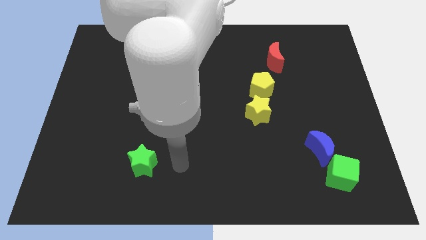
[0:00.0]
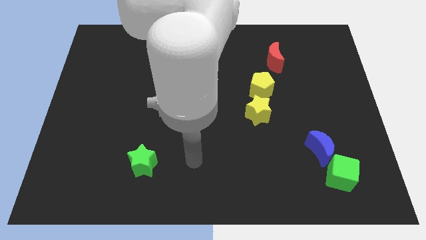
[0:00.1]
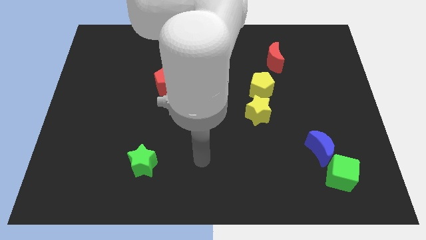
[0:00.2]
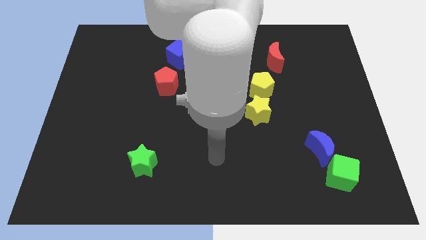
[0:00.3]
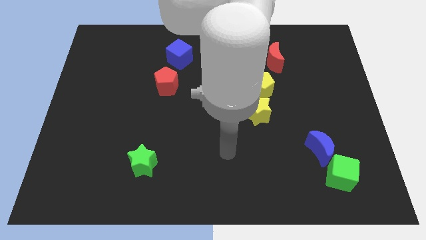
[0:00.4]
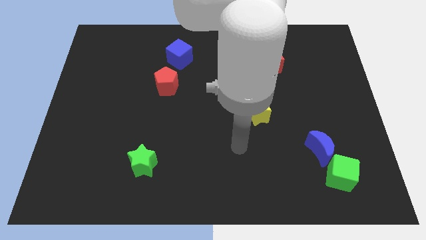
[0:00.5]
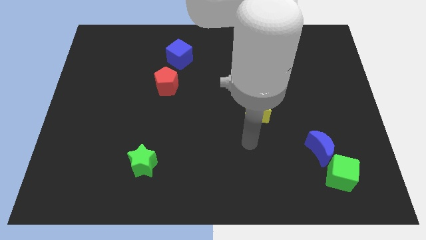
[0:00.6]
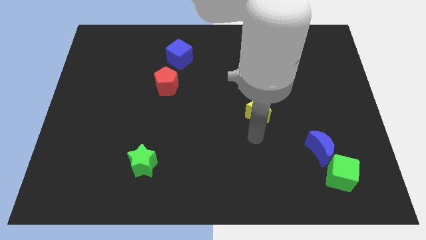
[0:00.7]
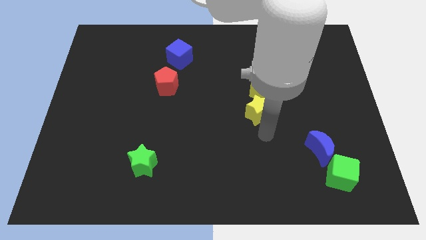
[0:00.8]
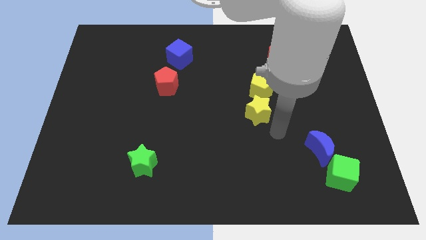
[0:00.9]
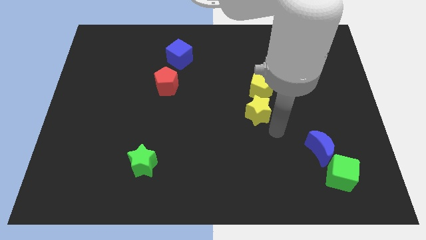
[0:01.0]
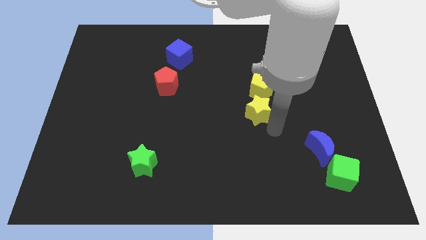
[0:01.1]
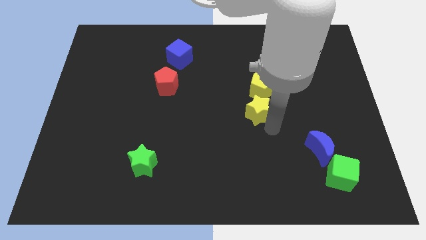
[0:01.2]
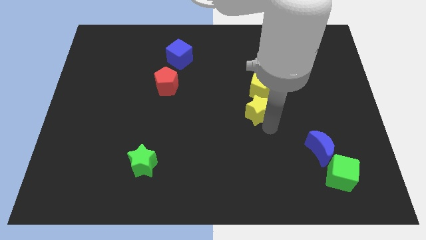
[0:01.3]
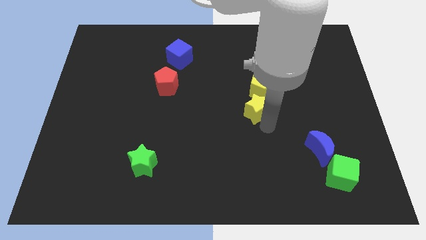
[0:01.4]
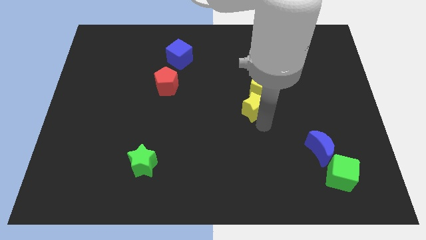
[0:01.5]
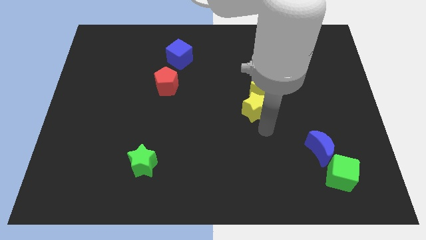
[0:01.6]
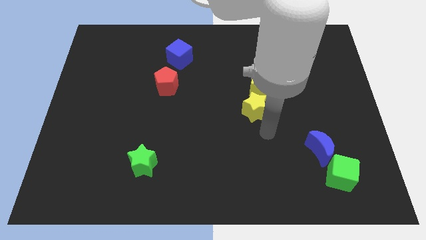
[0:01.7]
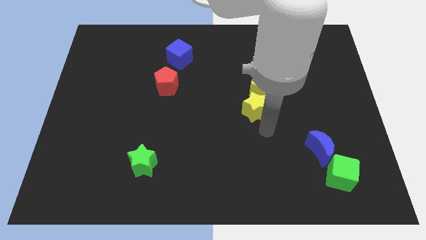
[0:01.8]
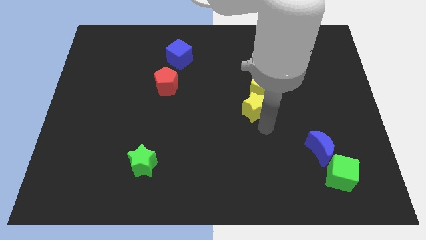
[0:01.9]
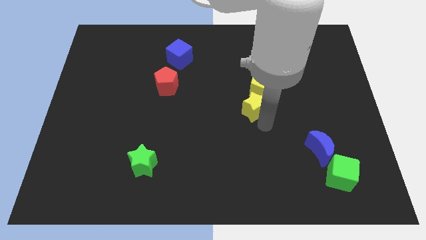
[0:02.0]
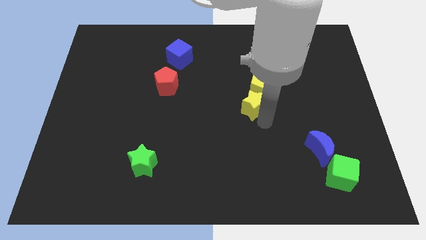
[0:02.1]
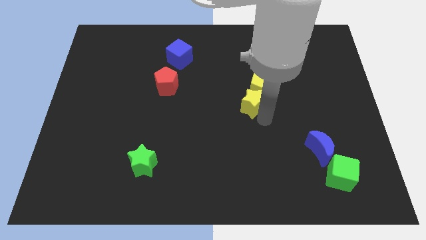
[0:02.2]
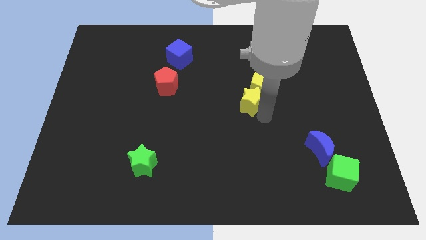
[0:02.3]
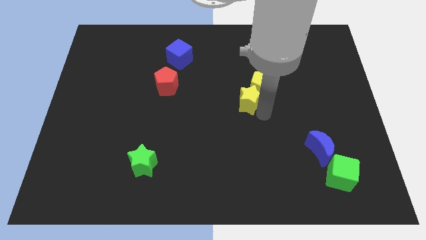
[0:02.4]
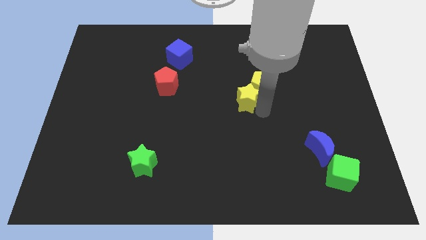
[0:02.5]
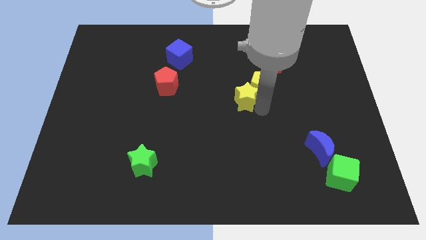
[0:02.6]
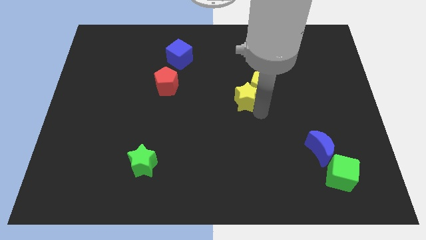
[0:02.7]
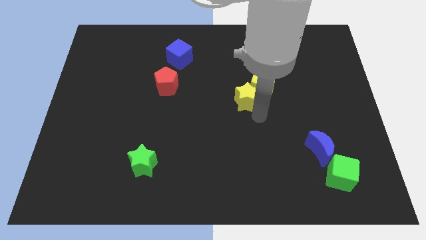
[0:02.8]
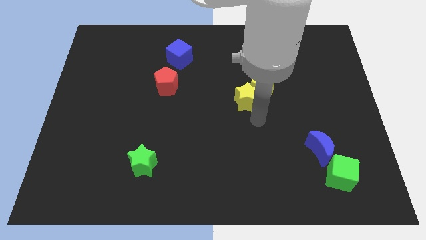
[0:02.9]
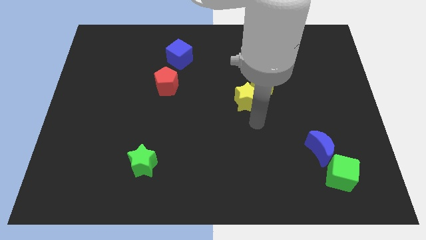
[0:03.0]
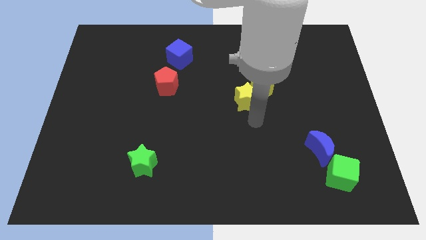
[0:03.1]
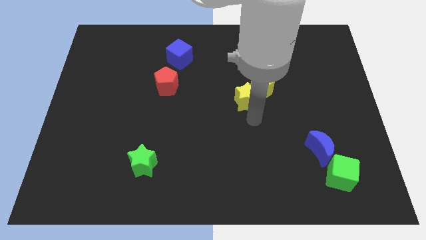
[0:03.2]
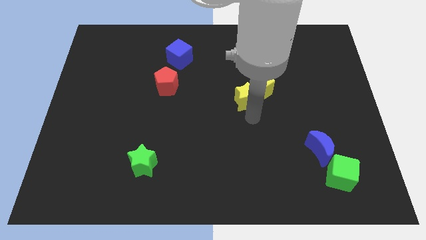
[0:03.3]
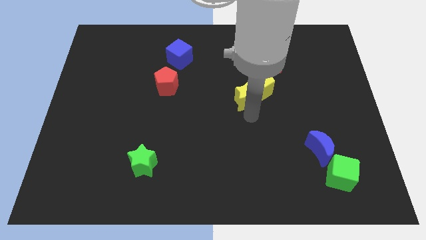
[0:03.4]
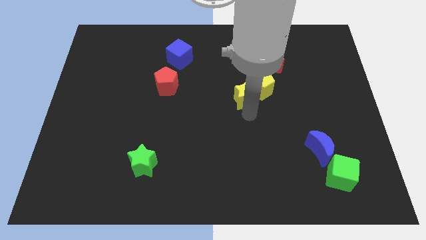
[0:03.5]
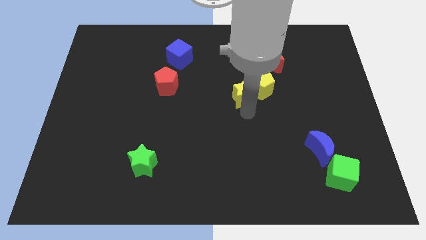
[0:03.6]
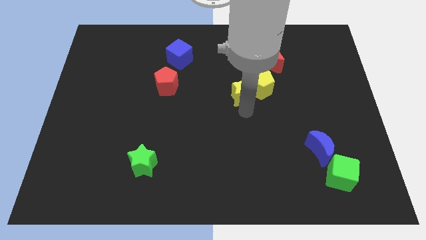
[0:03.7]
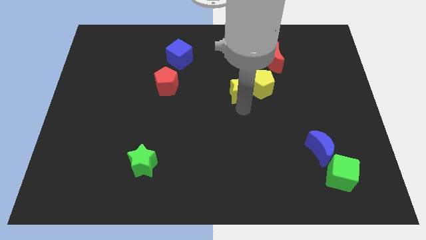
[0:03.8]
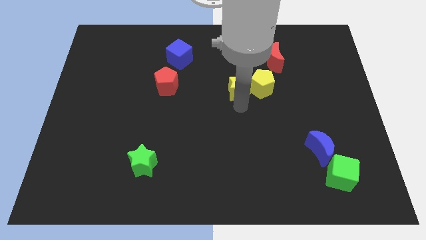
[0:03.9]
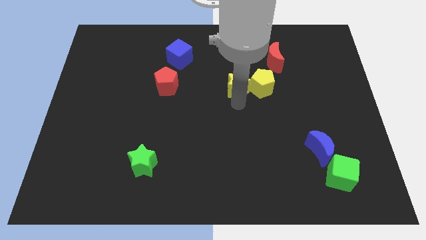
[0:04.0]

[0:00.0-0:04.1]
slightly push the yellow star up

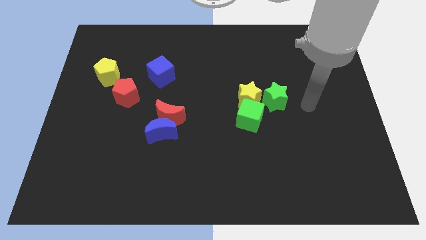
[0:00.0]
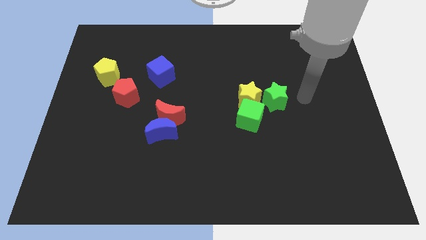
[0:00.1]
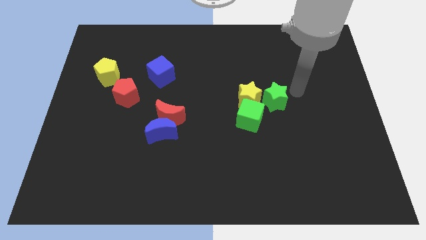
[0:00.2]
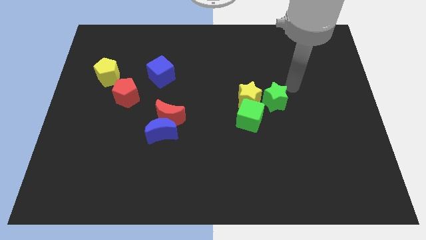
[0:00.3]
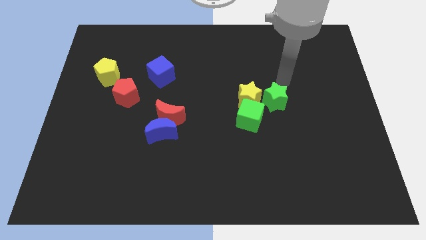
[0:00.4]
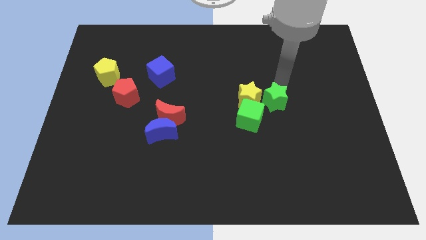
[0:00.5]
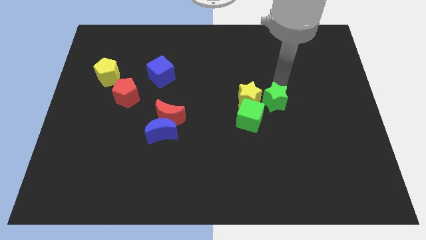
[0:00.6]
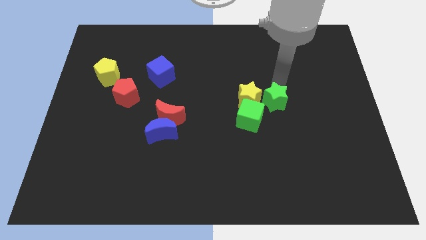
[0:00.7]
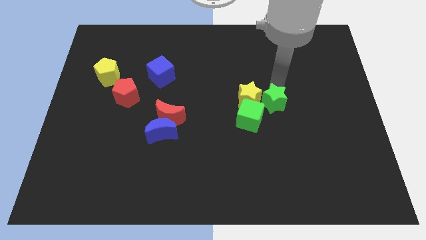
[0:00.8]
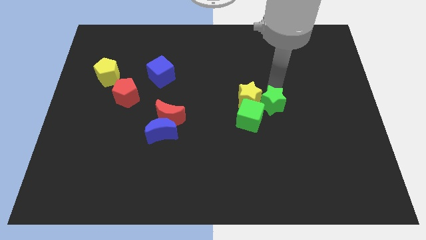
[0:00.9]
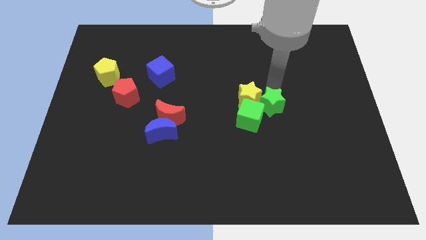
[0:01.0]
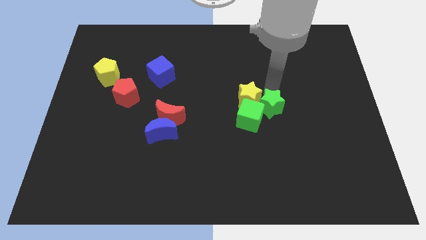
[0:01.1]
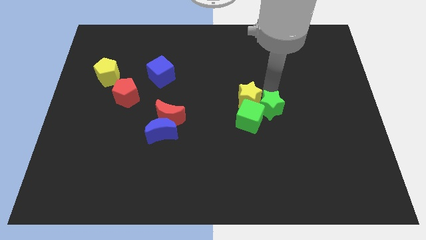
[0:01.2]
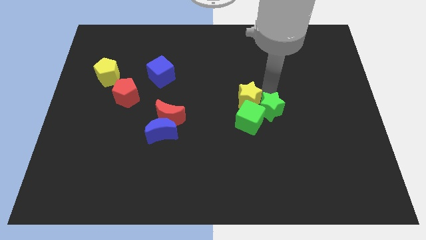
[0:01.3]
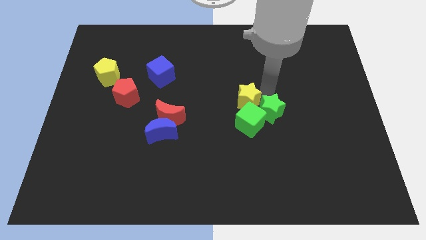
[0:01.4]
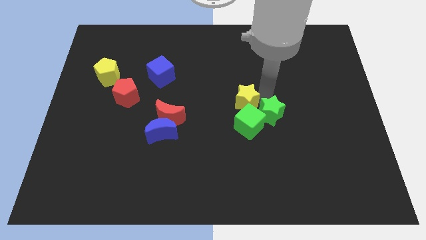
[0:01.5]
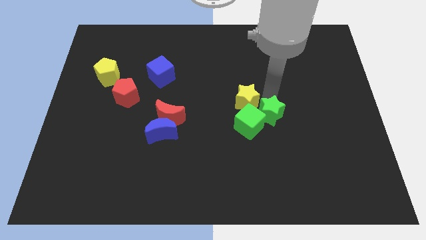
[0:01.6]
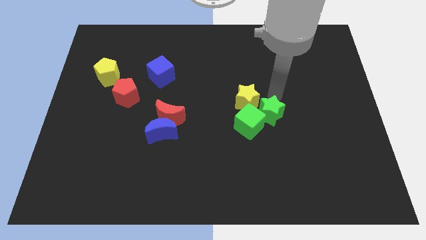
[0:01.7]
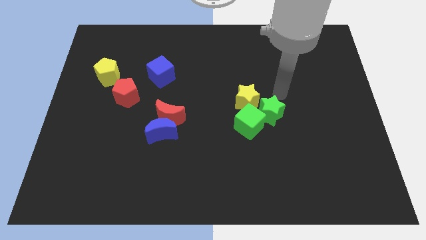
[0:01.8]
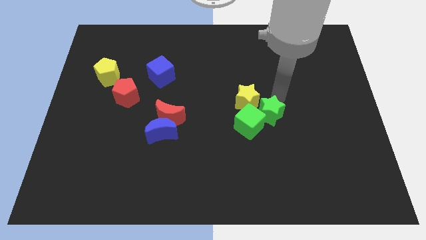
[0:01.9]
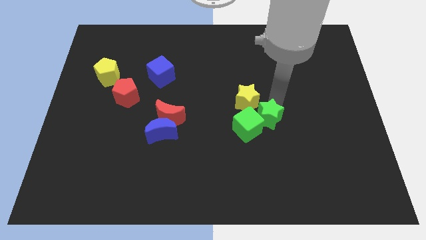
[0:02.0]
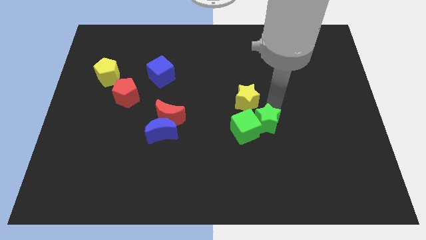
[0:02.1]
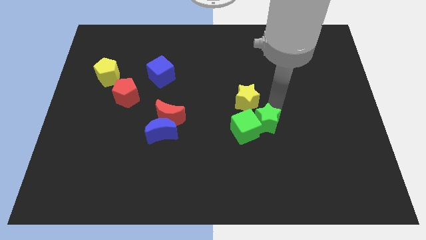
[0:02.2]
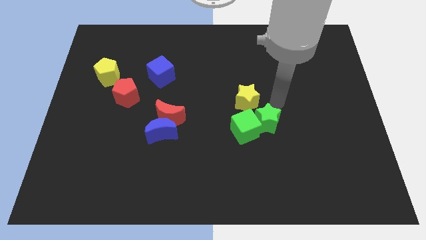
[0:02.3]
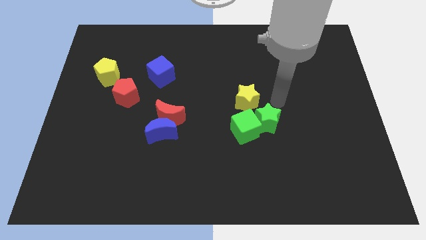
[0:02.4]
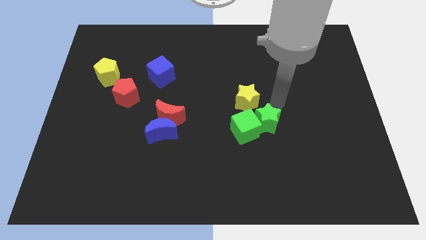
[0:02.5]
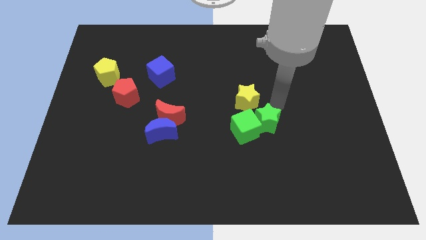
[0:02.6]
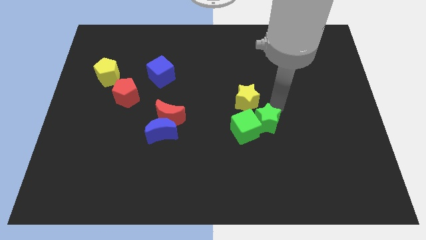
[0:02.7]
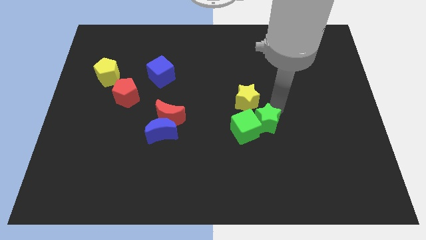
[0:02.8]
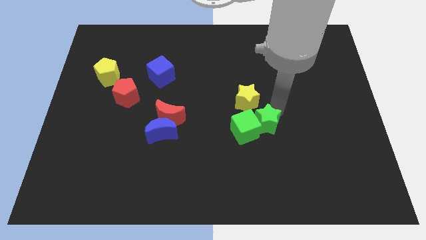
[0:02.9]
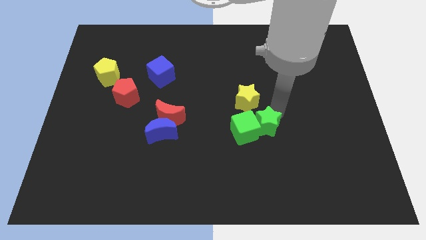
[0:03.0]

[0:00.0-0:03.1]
slide the green star a little bit diagonally down and left

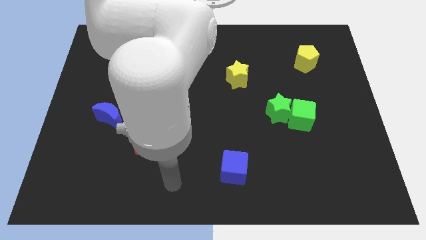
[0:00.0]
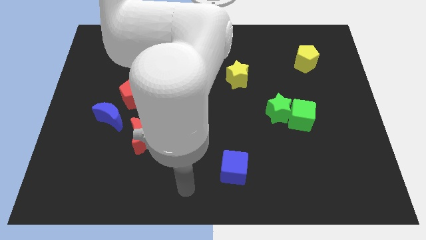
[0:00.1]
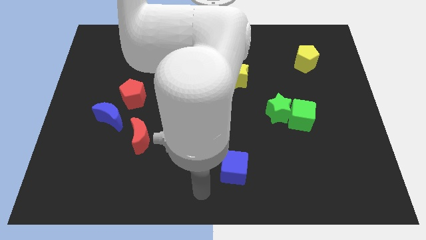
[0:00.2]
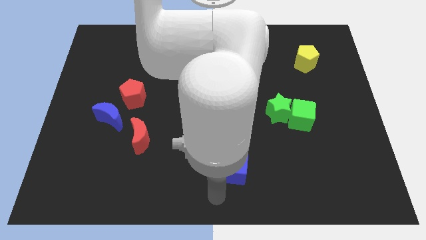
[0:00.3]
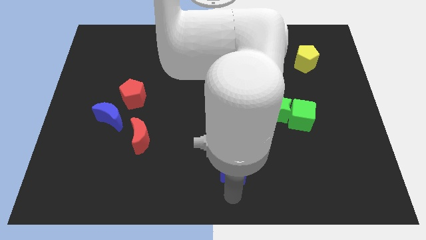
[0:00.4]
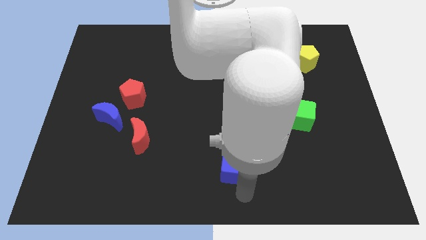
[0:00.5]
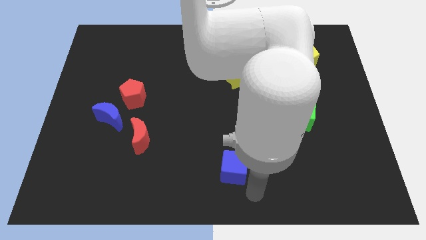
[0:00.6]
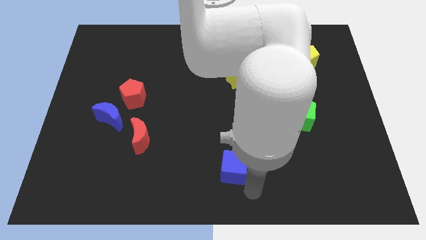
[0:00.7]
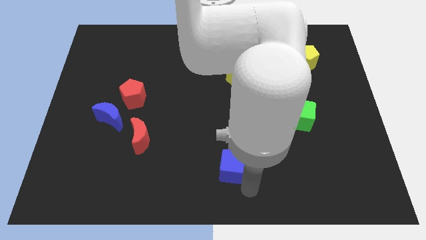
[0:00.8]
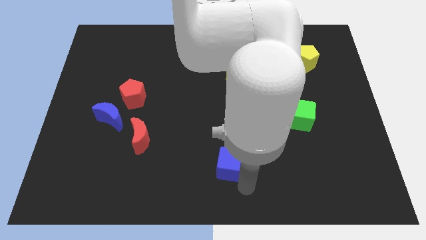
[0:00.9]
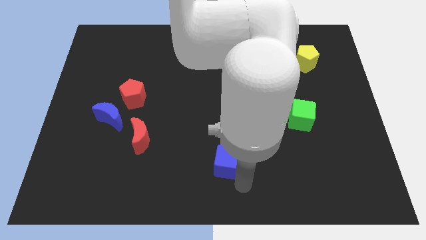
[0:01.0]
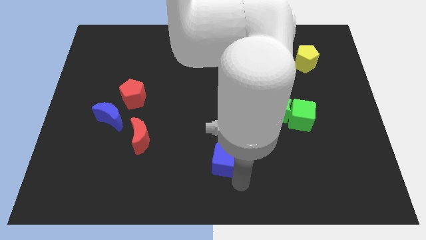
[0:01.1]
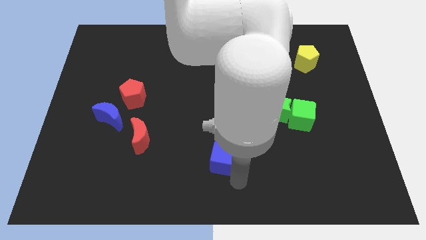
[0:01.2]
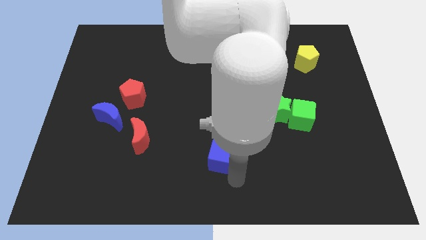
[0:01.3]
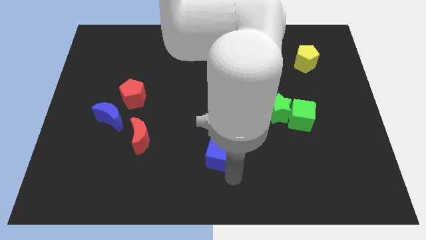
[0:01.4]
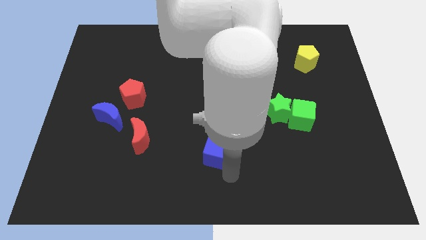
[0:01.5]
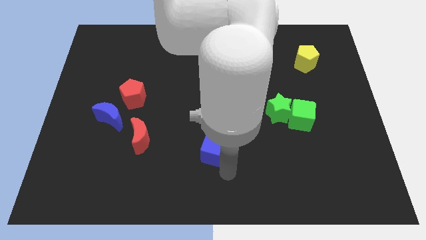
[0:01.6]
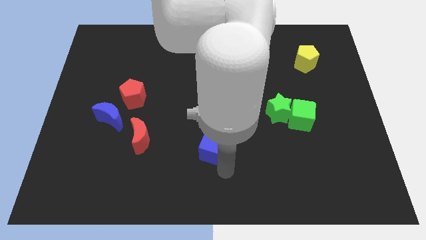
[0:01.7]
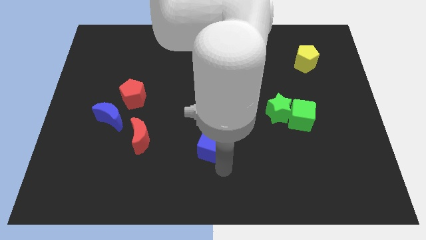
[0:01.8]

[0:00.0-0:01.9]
slide the blue cube diagonally upwards and to the left a bit
